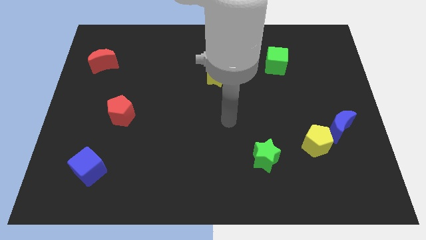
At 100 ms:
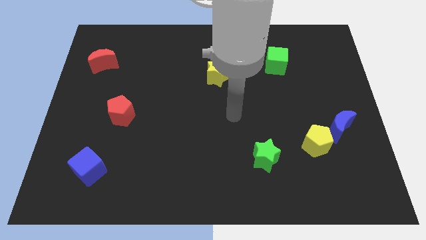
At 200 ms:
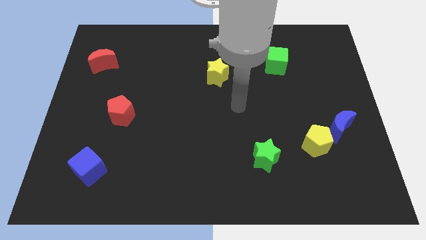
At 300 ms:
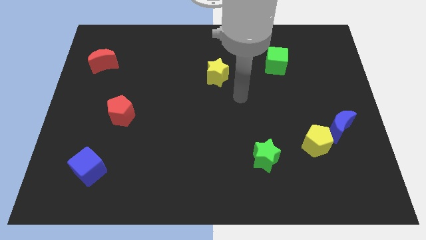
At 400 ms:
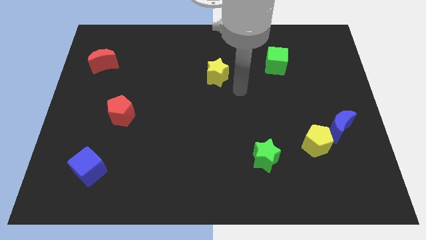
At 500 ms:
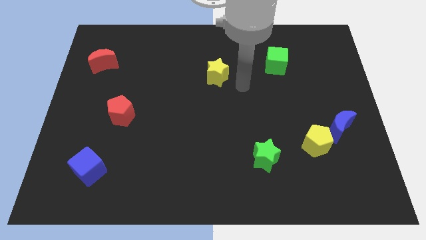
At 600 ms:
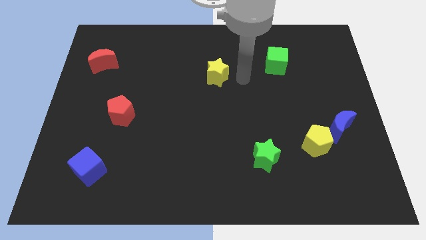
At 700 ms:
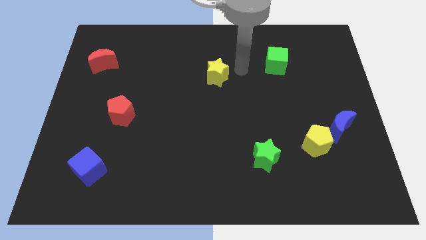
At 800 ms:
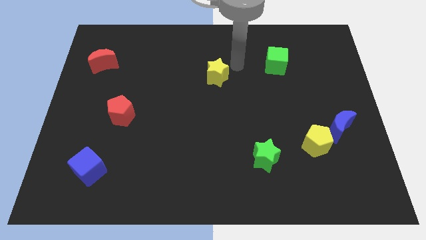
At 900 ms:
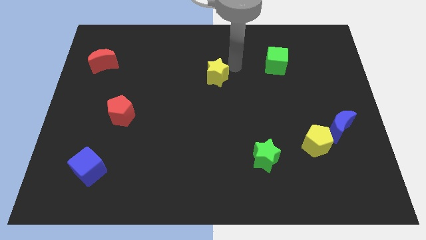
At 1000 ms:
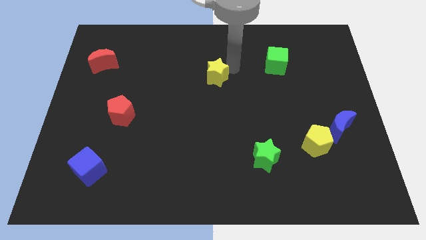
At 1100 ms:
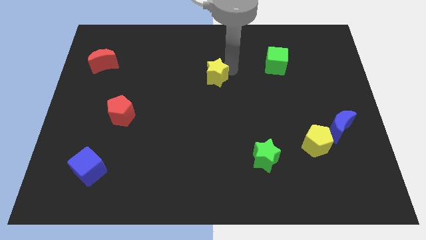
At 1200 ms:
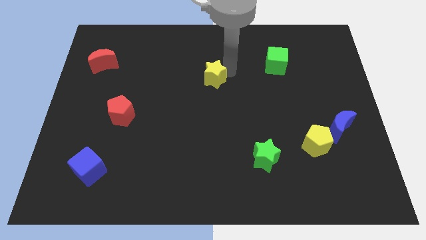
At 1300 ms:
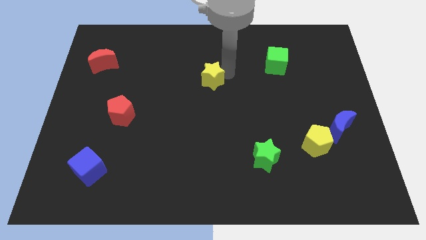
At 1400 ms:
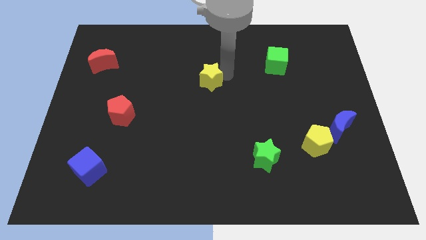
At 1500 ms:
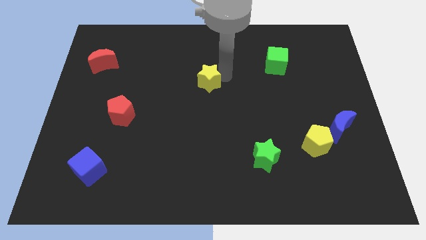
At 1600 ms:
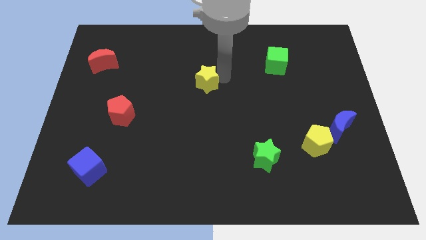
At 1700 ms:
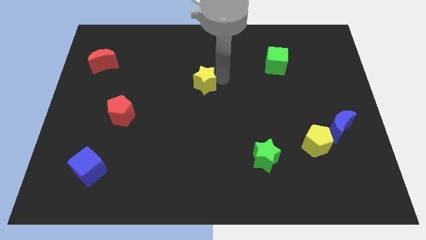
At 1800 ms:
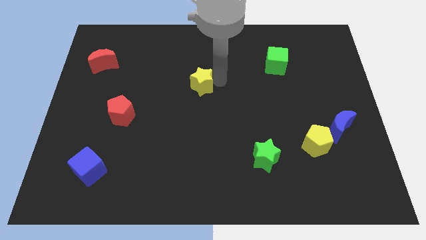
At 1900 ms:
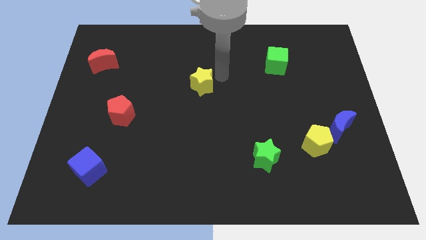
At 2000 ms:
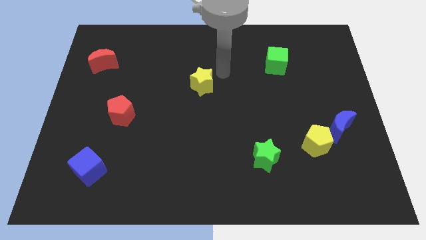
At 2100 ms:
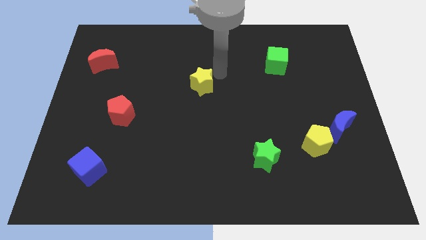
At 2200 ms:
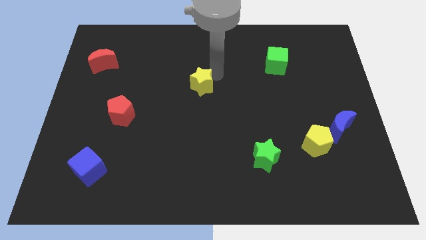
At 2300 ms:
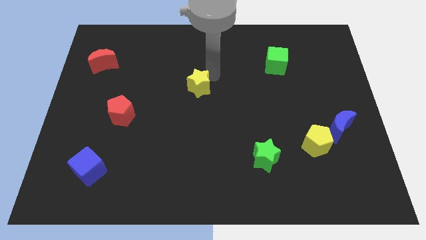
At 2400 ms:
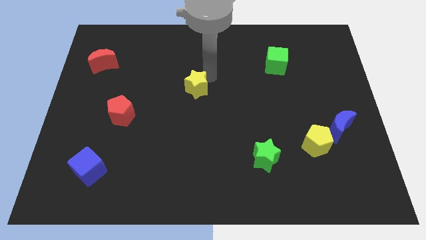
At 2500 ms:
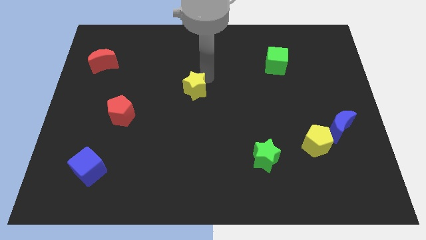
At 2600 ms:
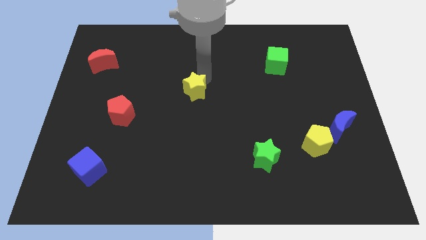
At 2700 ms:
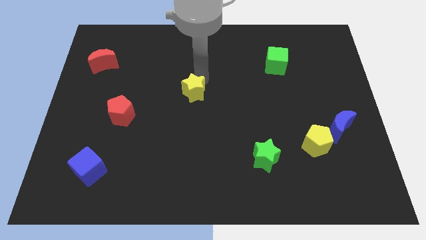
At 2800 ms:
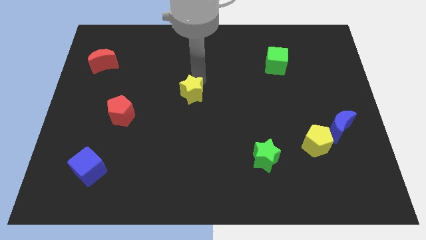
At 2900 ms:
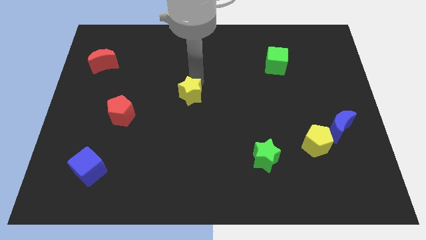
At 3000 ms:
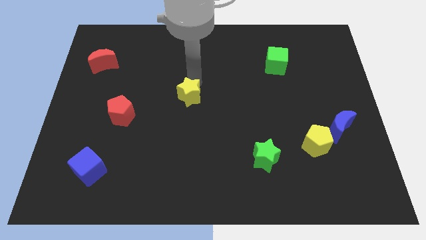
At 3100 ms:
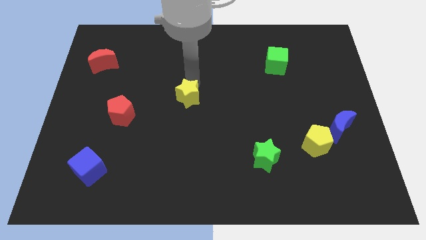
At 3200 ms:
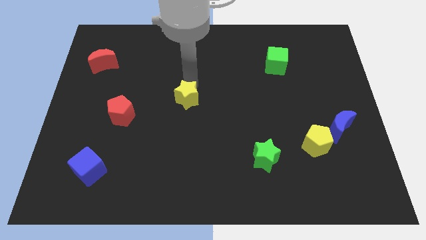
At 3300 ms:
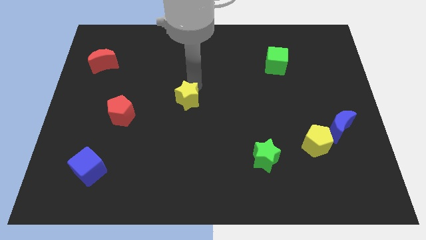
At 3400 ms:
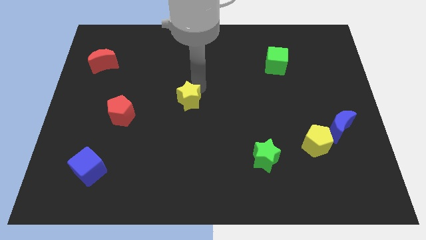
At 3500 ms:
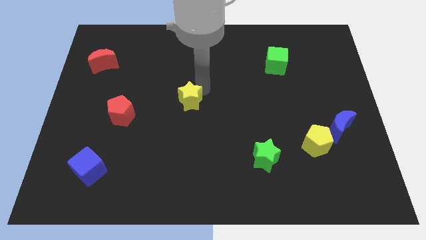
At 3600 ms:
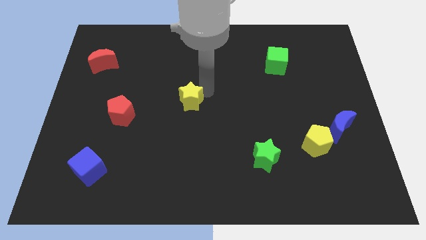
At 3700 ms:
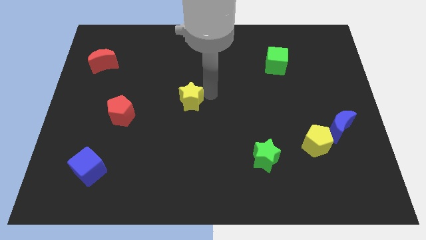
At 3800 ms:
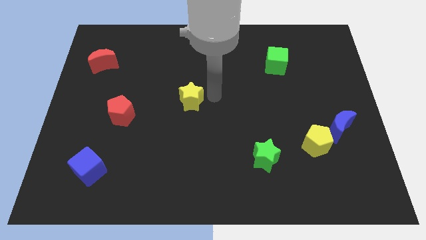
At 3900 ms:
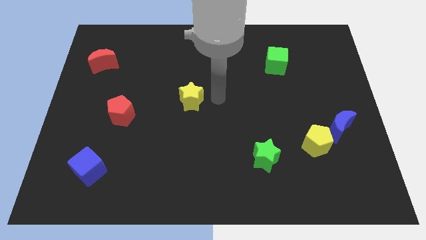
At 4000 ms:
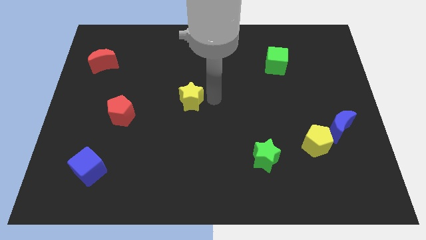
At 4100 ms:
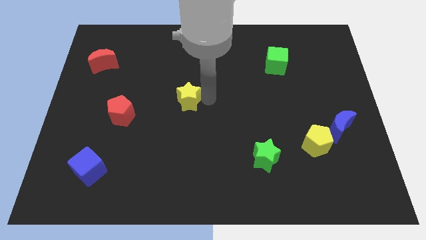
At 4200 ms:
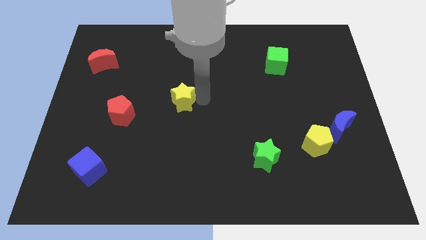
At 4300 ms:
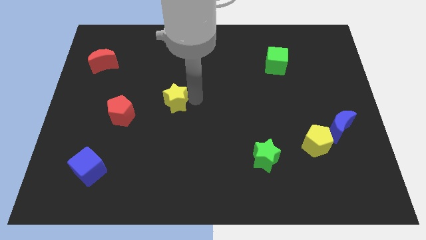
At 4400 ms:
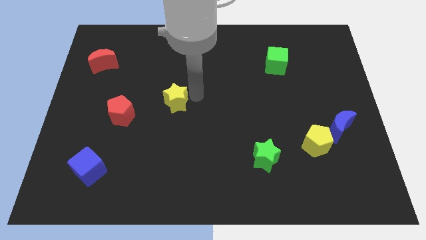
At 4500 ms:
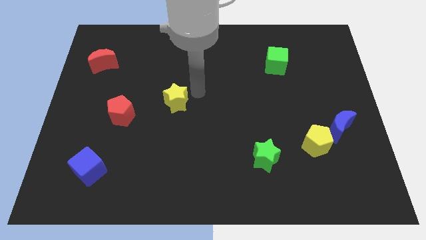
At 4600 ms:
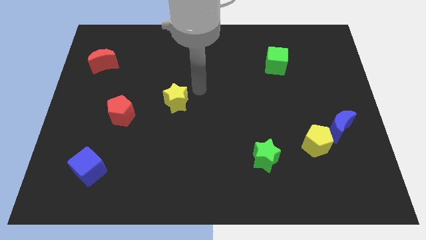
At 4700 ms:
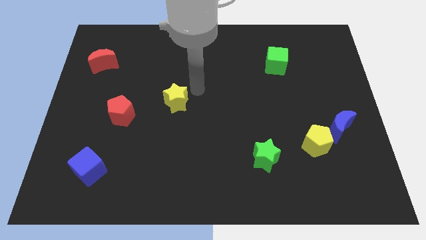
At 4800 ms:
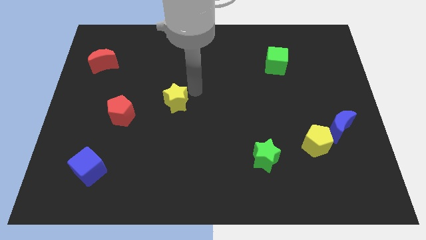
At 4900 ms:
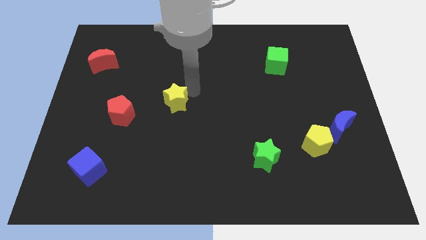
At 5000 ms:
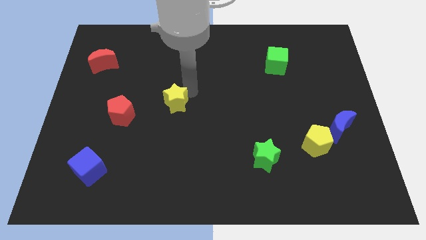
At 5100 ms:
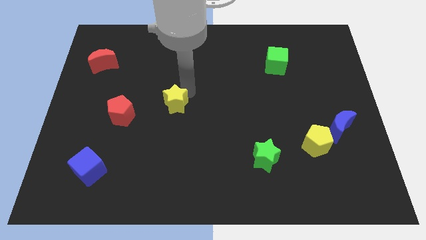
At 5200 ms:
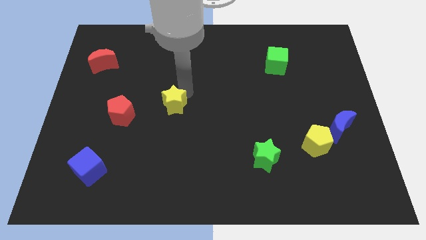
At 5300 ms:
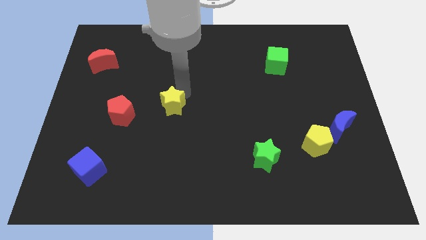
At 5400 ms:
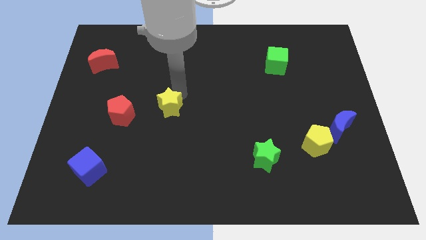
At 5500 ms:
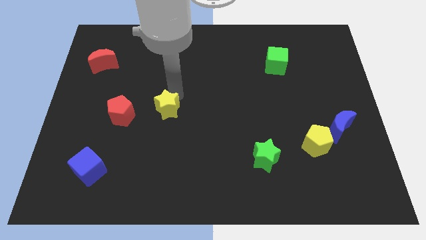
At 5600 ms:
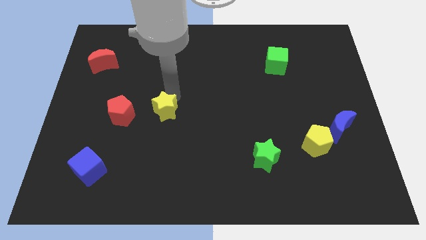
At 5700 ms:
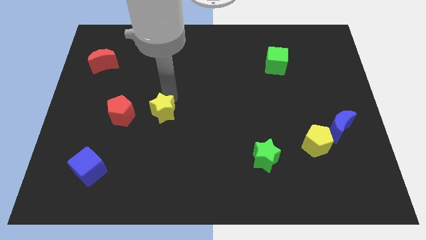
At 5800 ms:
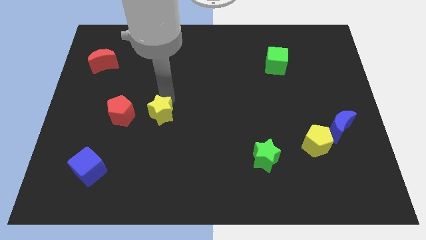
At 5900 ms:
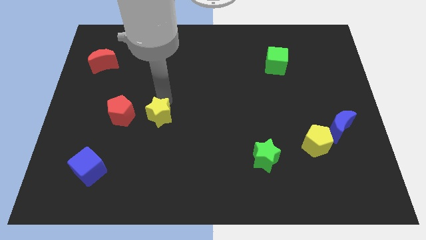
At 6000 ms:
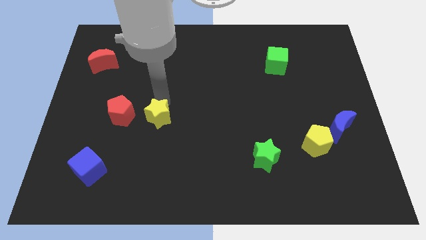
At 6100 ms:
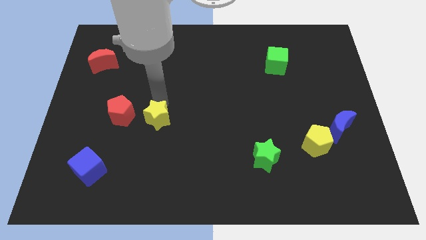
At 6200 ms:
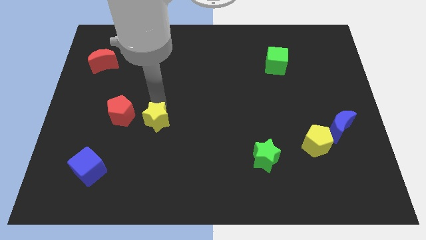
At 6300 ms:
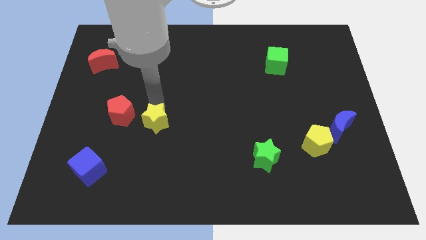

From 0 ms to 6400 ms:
slide the yellow star diagonally downwards and left

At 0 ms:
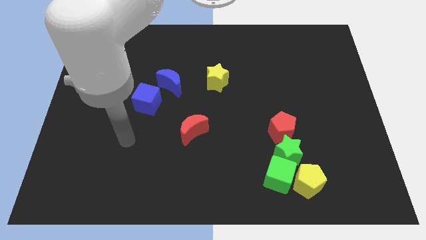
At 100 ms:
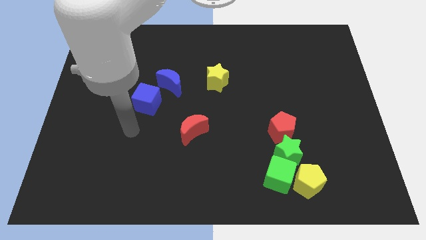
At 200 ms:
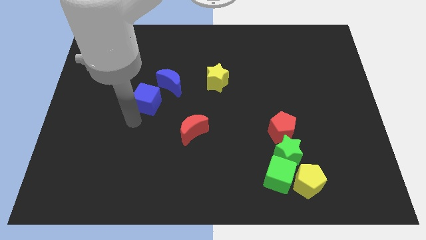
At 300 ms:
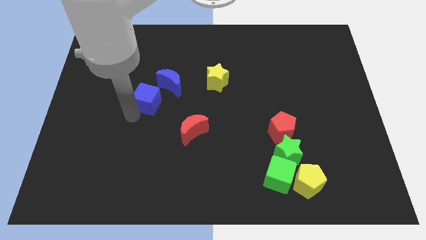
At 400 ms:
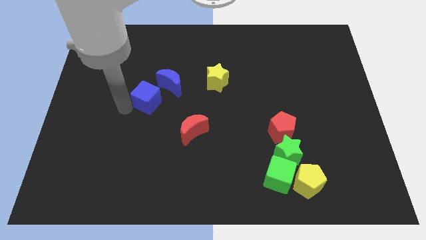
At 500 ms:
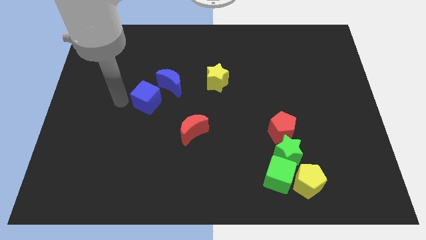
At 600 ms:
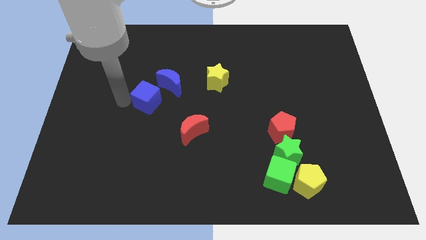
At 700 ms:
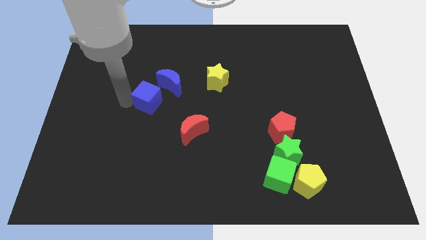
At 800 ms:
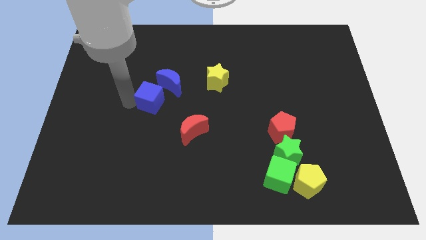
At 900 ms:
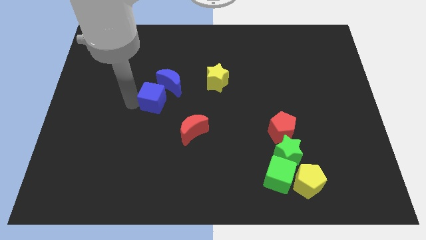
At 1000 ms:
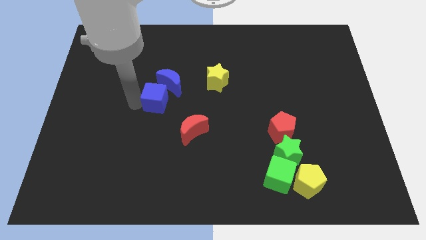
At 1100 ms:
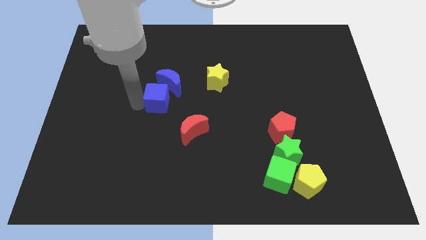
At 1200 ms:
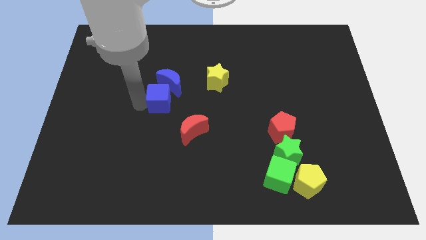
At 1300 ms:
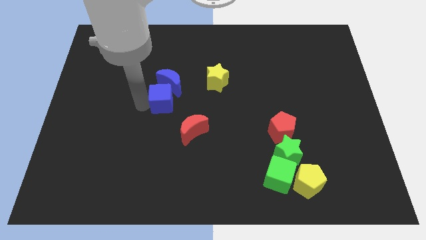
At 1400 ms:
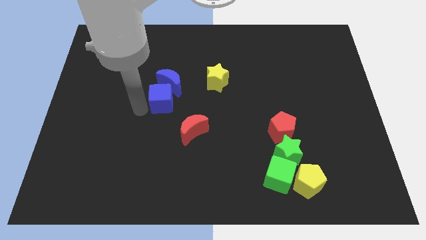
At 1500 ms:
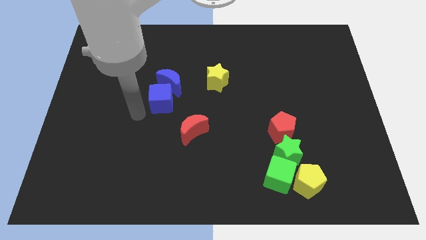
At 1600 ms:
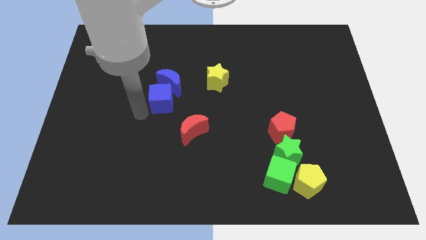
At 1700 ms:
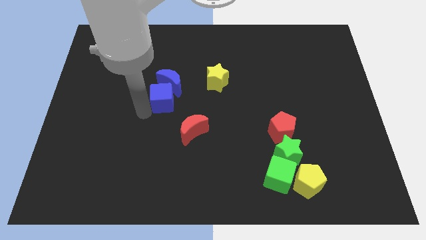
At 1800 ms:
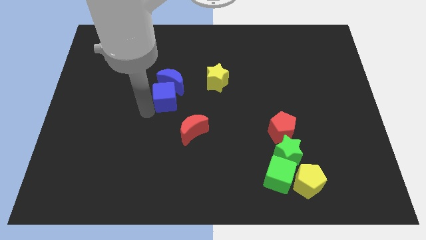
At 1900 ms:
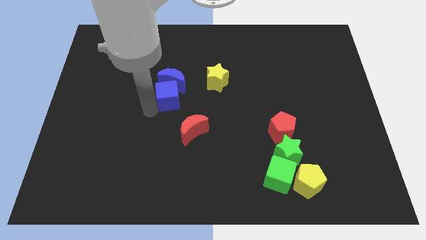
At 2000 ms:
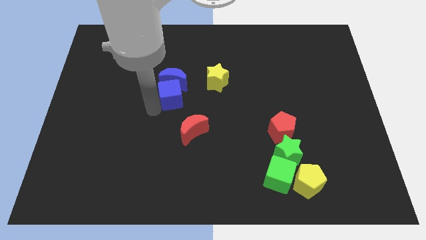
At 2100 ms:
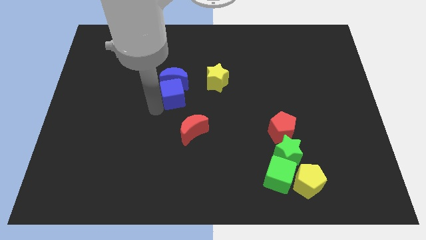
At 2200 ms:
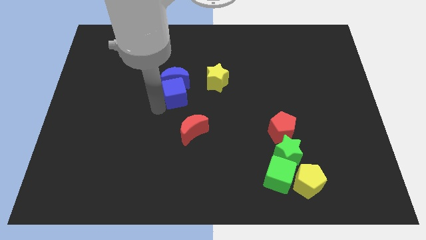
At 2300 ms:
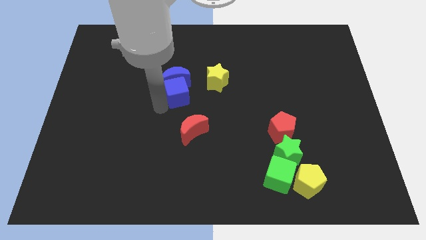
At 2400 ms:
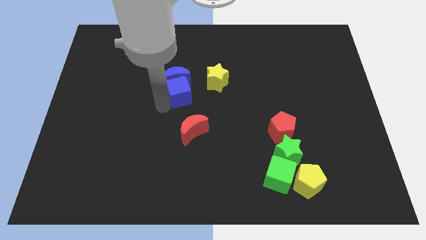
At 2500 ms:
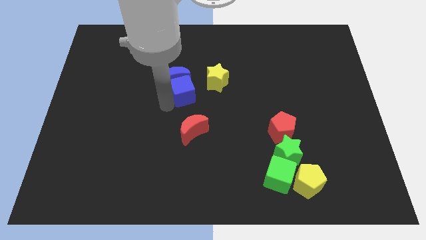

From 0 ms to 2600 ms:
move the blue cube diagonally up and right somewhat
